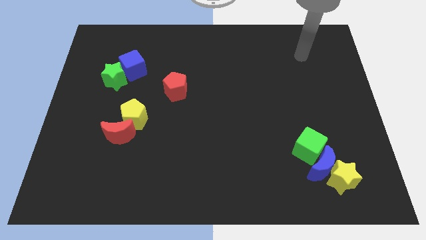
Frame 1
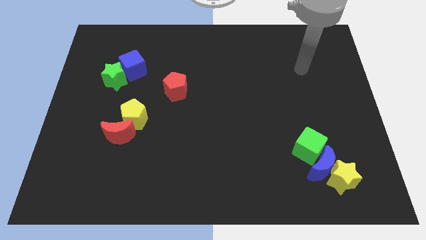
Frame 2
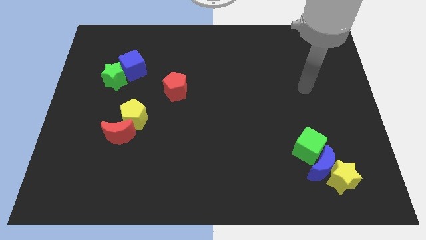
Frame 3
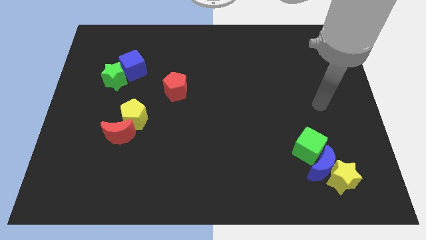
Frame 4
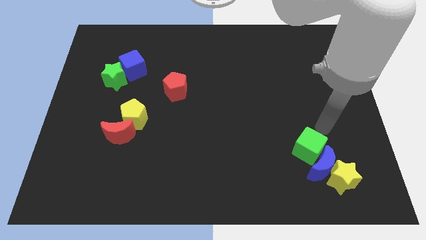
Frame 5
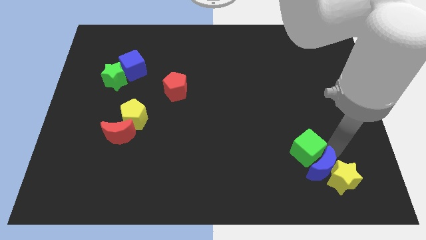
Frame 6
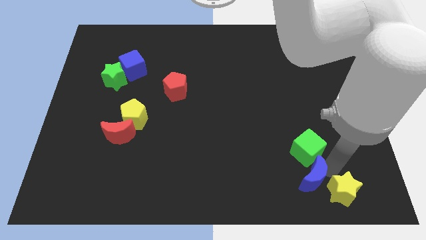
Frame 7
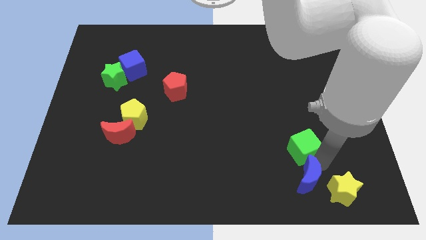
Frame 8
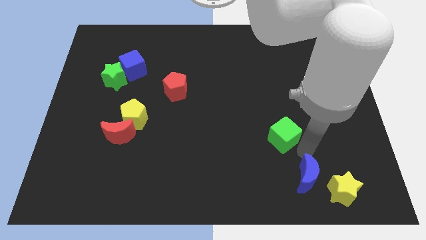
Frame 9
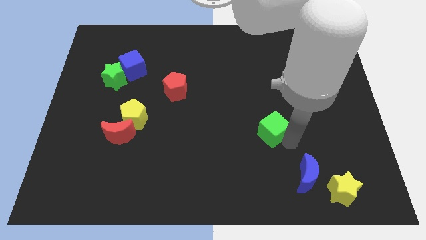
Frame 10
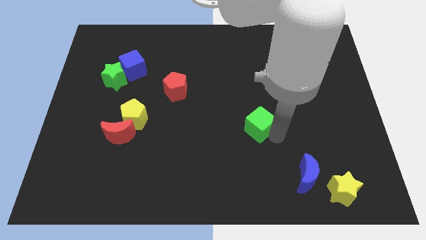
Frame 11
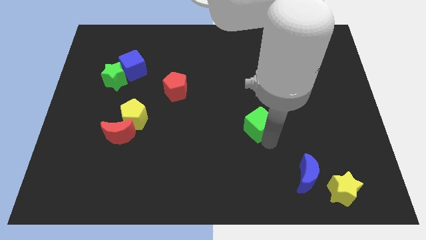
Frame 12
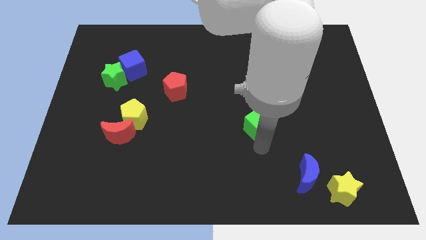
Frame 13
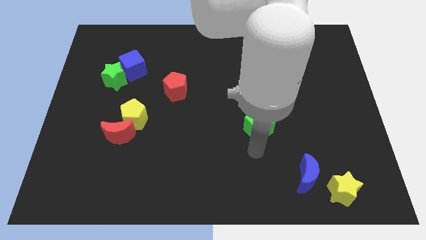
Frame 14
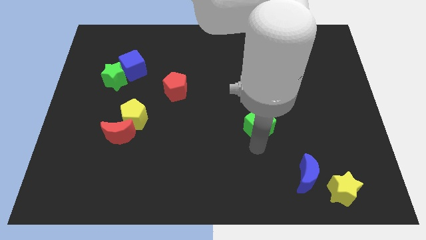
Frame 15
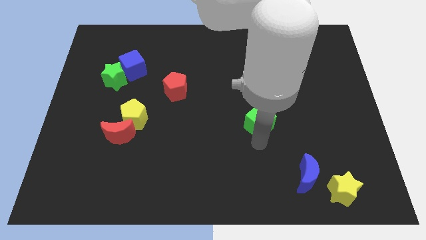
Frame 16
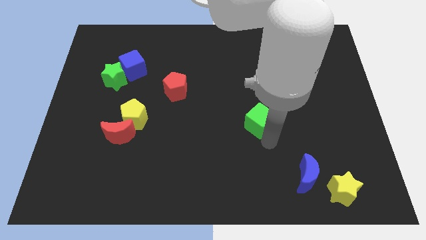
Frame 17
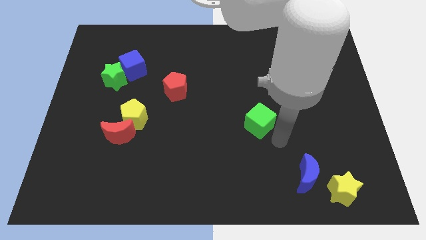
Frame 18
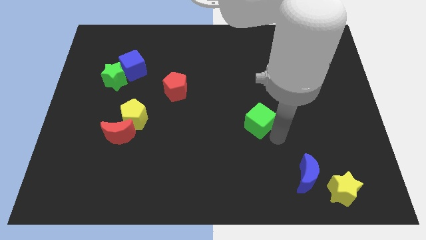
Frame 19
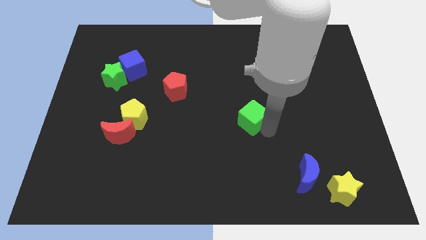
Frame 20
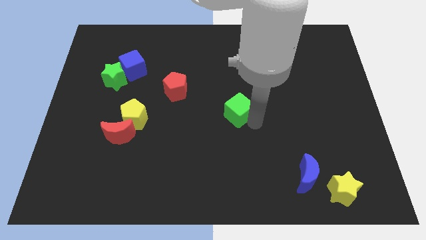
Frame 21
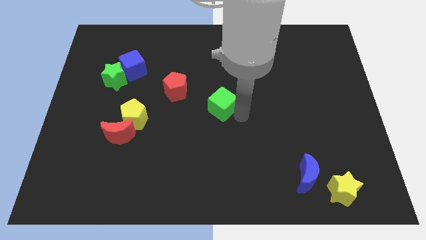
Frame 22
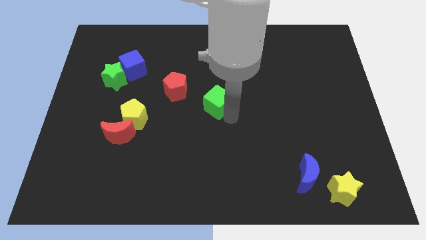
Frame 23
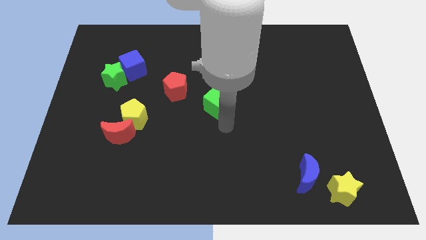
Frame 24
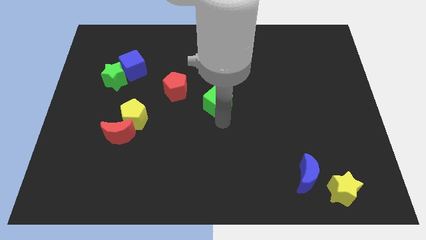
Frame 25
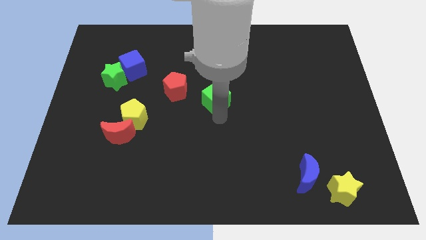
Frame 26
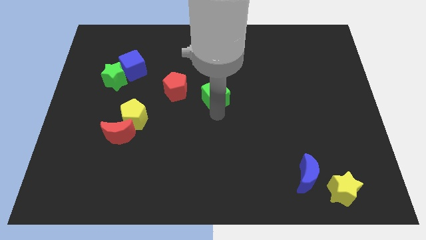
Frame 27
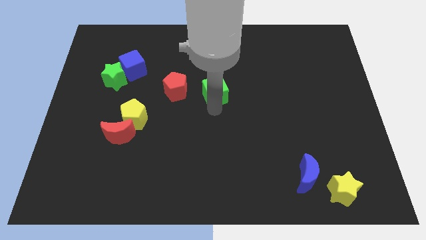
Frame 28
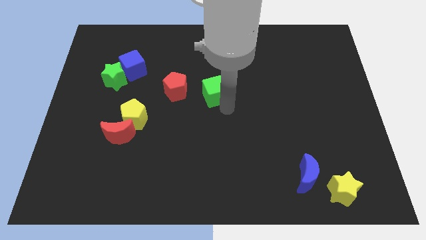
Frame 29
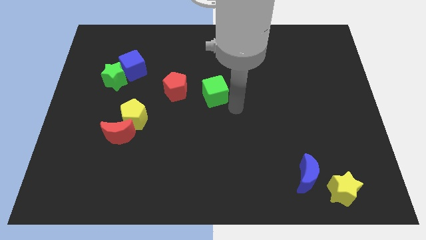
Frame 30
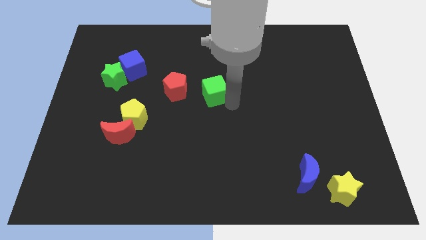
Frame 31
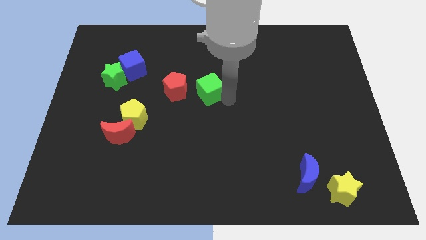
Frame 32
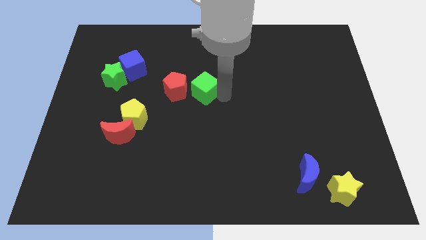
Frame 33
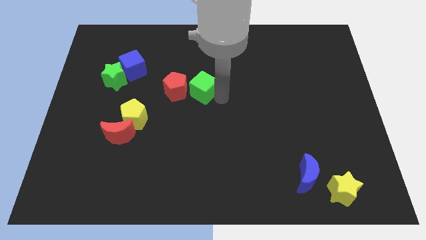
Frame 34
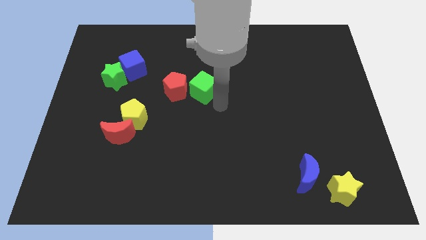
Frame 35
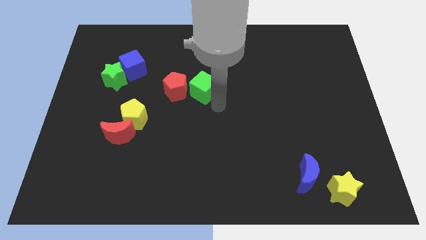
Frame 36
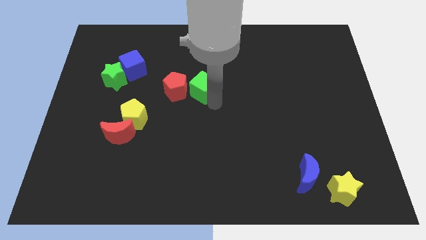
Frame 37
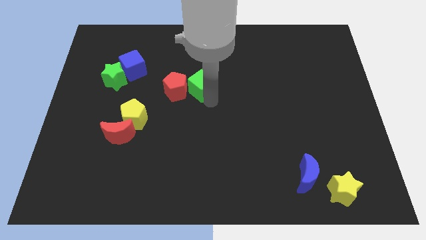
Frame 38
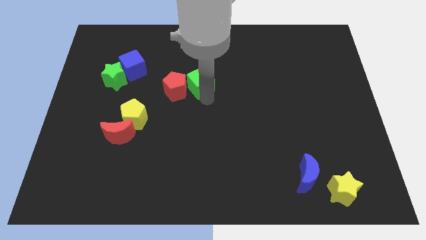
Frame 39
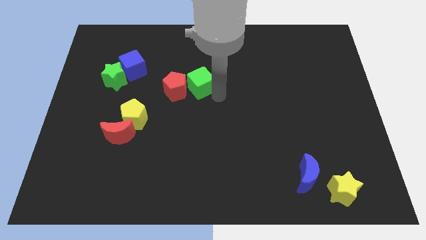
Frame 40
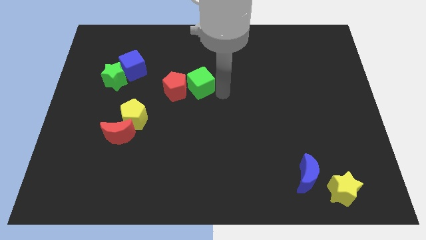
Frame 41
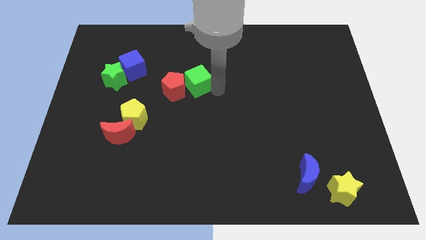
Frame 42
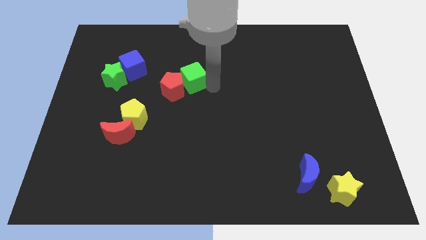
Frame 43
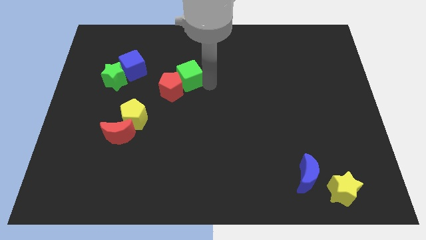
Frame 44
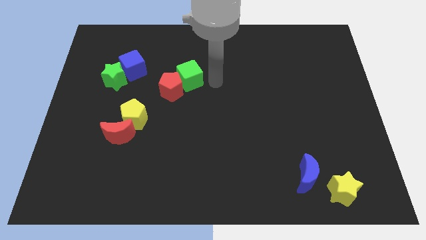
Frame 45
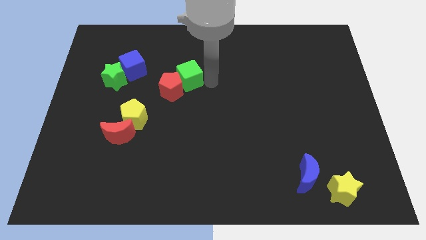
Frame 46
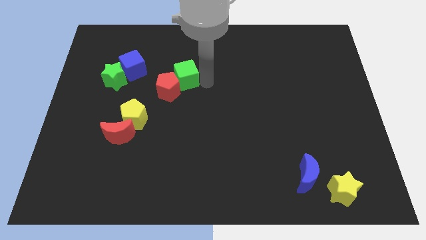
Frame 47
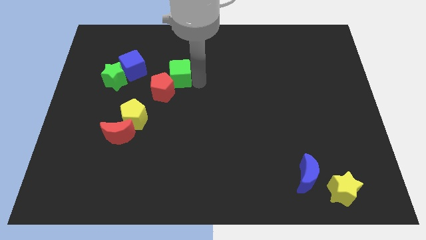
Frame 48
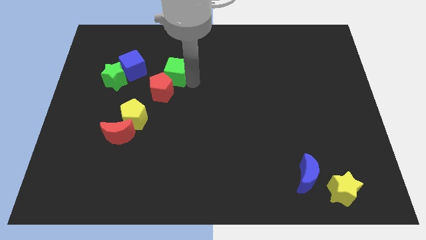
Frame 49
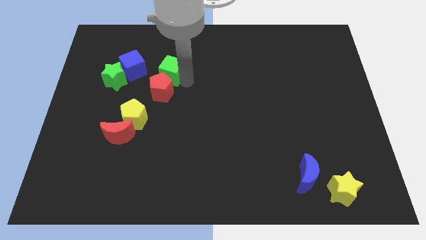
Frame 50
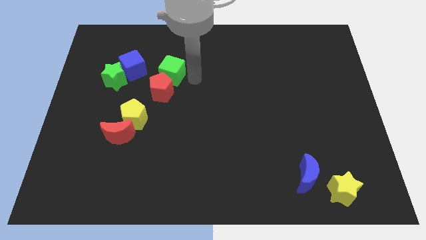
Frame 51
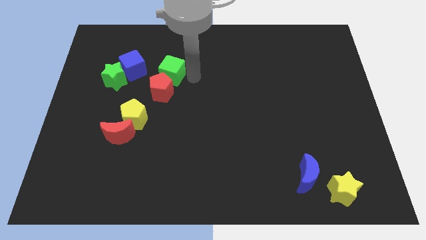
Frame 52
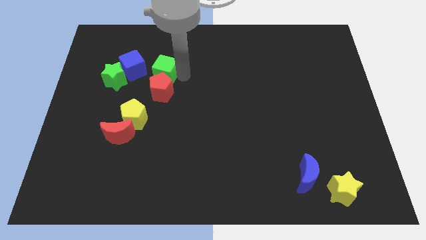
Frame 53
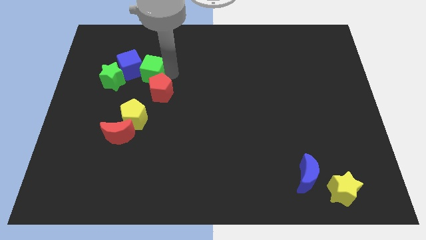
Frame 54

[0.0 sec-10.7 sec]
put the green cube close to the blue cube

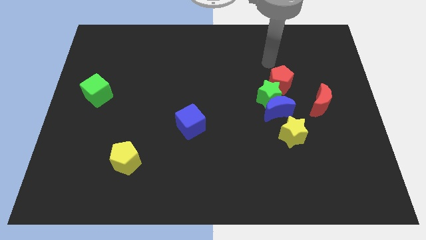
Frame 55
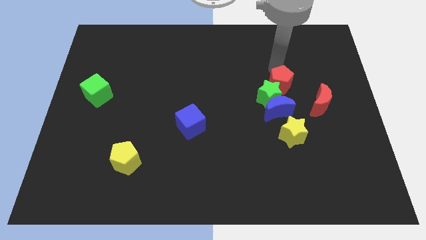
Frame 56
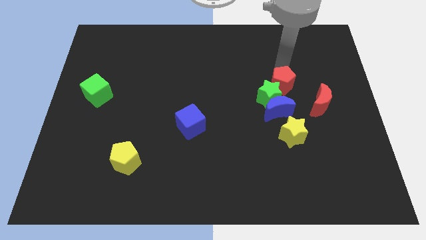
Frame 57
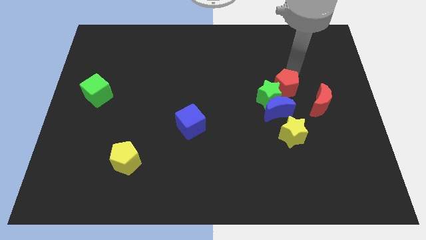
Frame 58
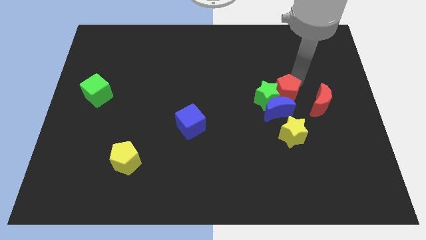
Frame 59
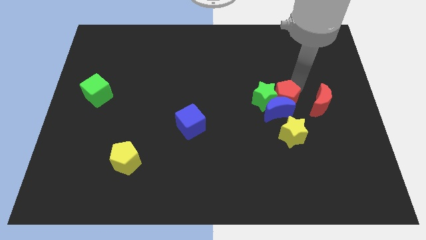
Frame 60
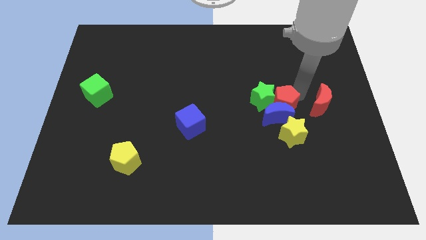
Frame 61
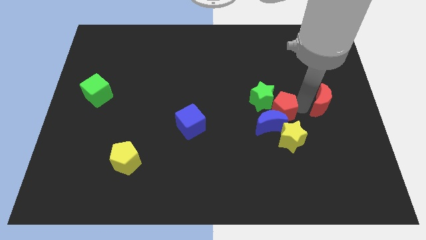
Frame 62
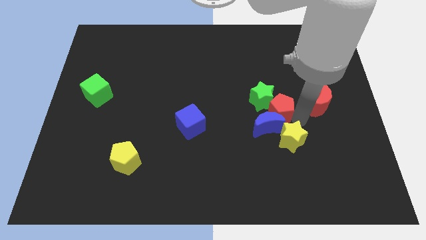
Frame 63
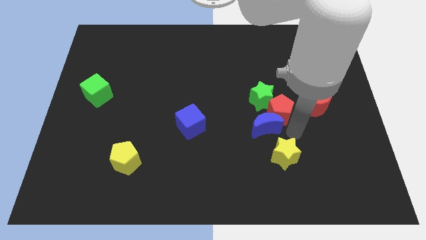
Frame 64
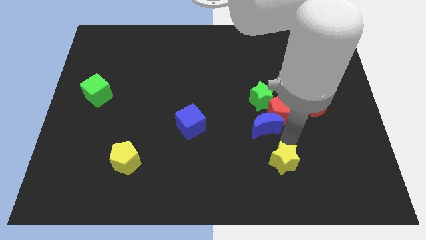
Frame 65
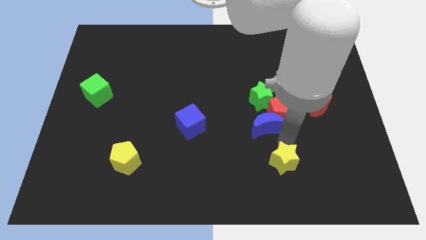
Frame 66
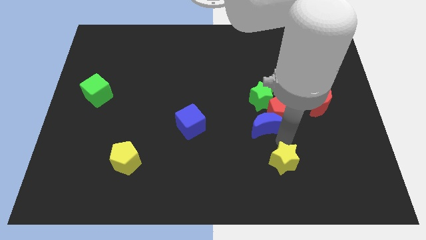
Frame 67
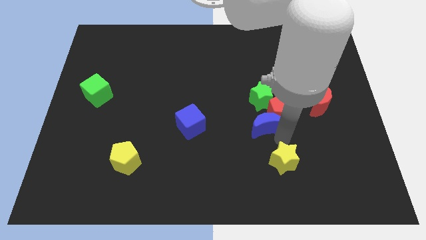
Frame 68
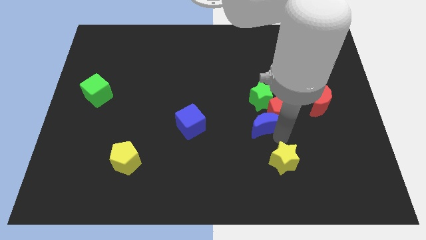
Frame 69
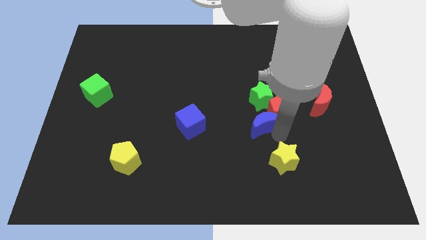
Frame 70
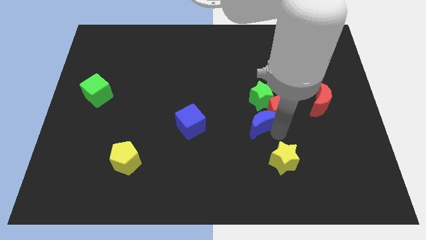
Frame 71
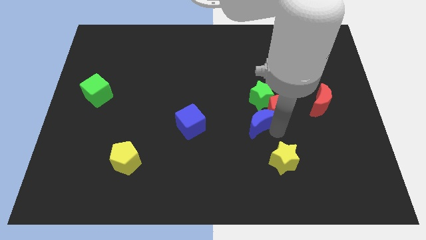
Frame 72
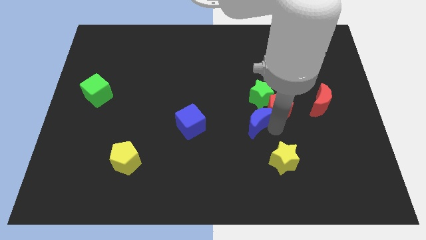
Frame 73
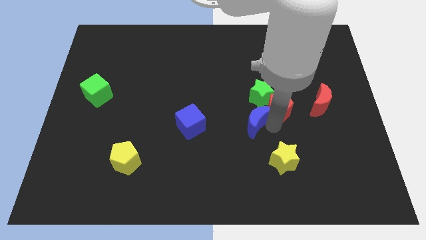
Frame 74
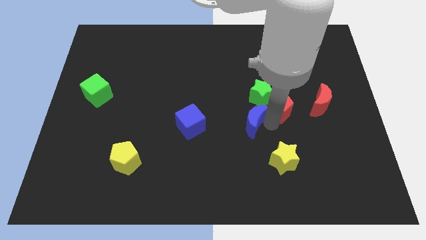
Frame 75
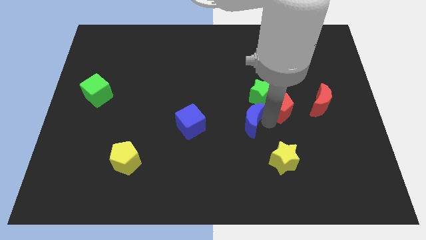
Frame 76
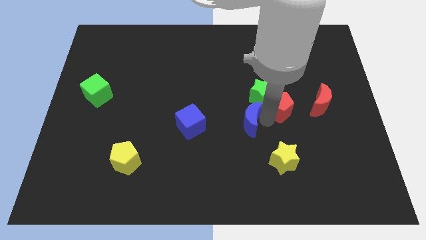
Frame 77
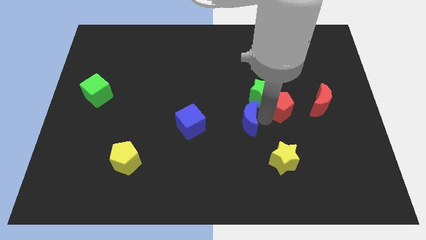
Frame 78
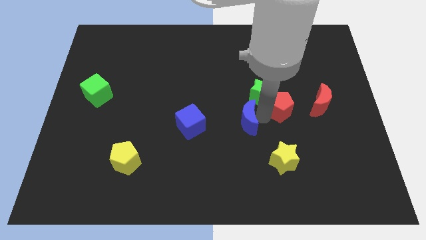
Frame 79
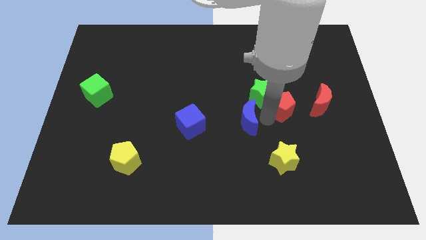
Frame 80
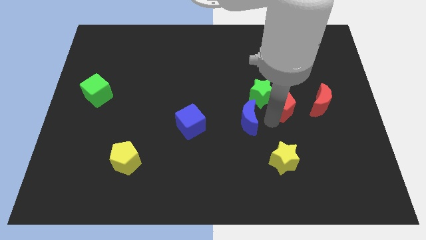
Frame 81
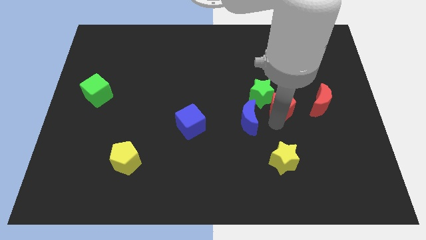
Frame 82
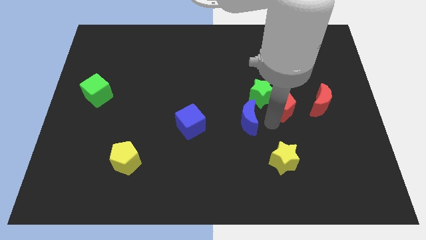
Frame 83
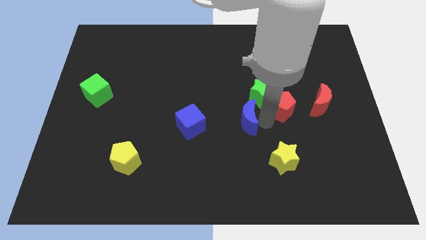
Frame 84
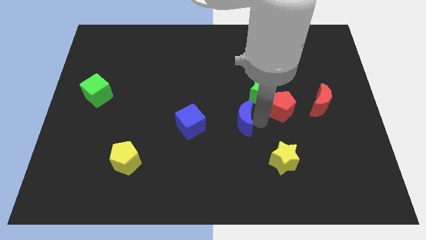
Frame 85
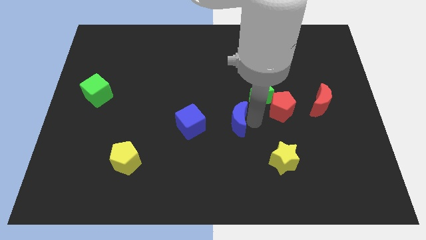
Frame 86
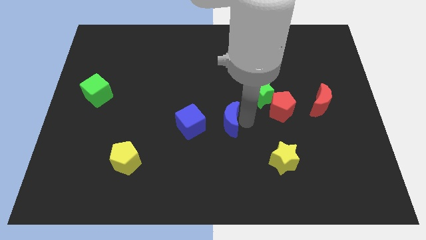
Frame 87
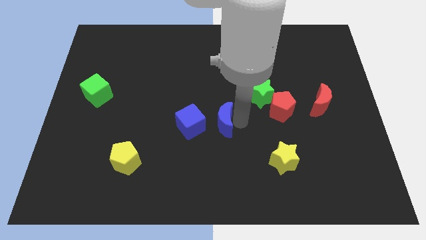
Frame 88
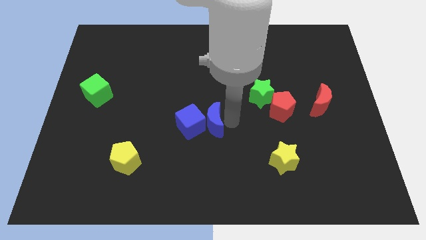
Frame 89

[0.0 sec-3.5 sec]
put the blue moon towards the blue cube
